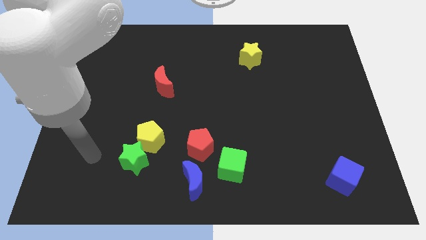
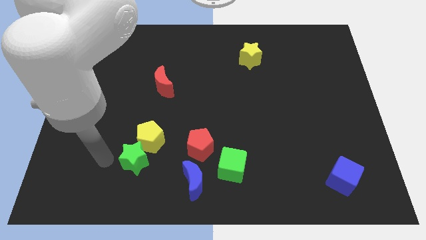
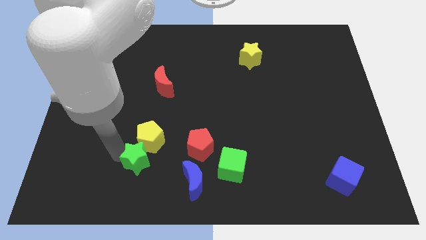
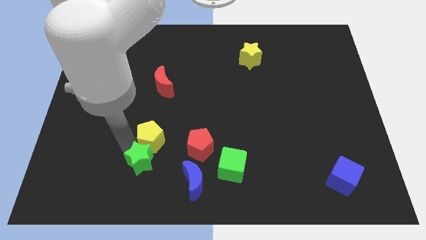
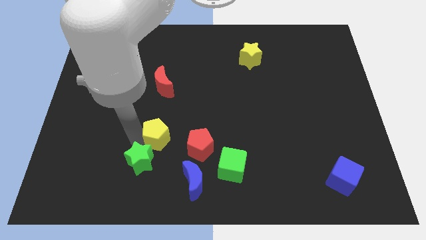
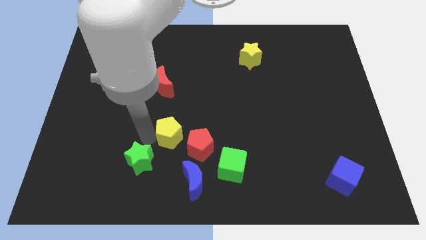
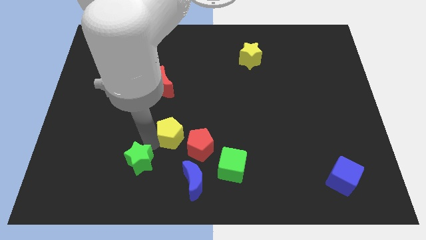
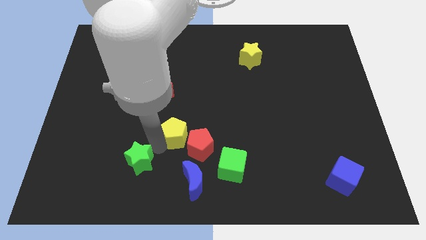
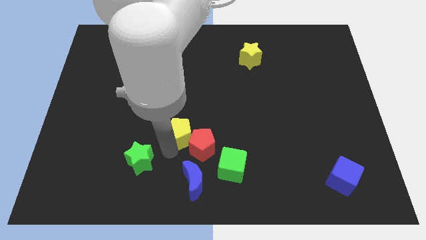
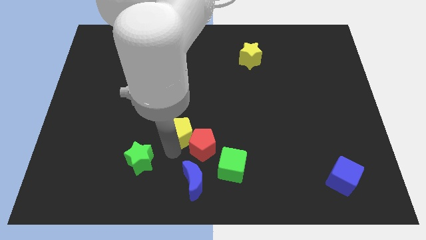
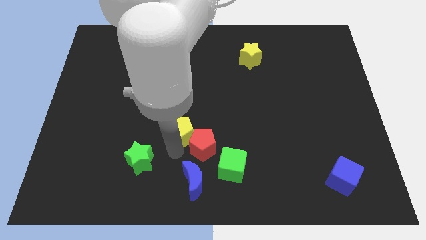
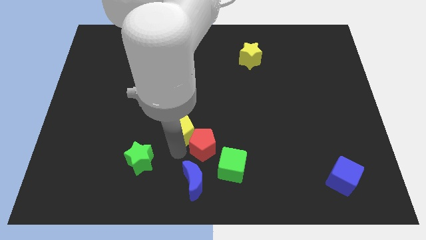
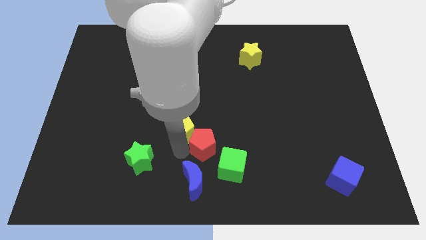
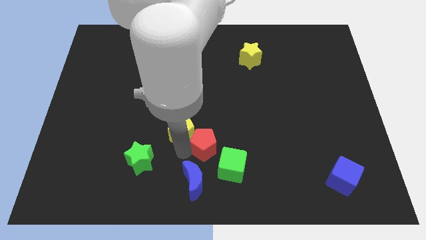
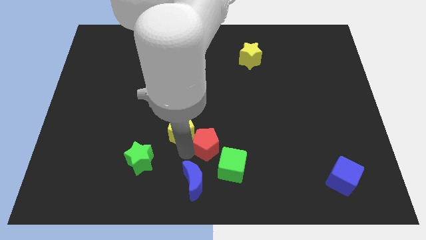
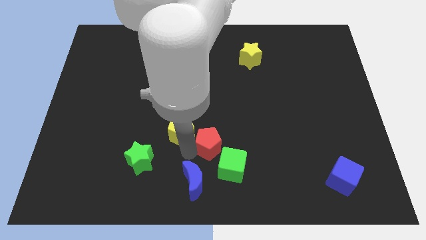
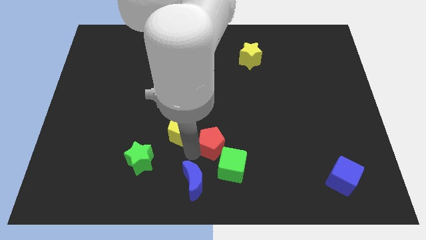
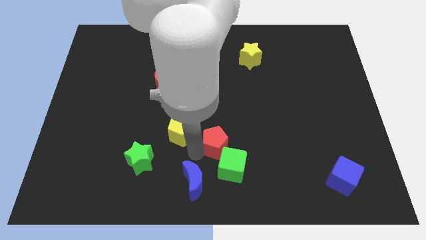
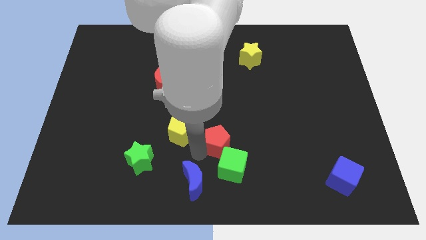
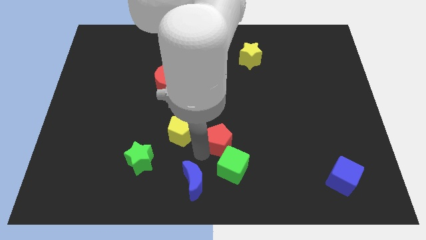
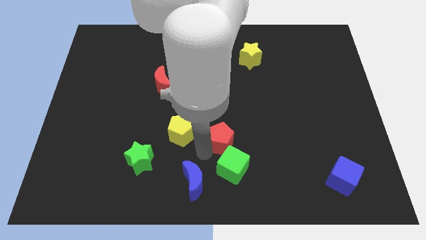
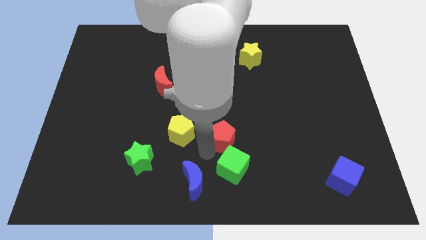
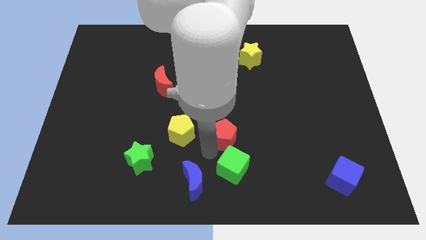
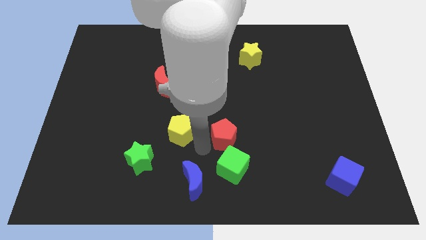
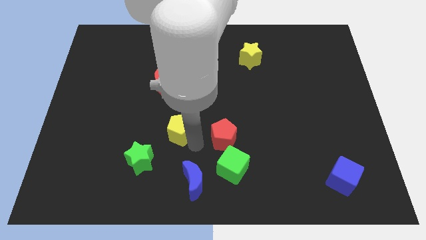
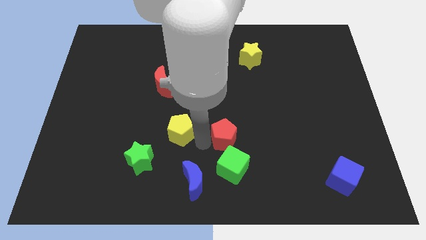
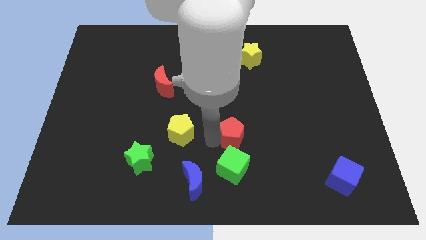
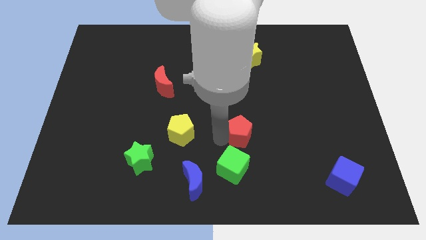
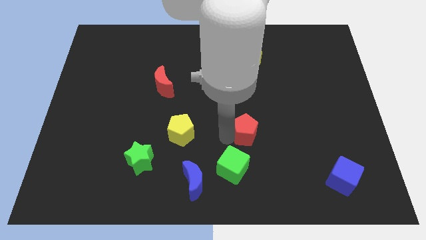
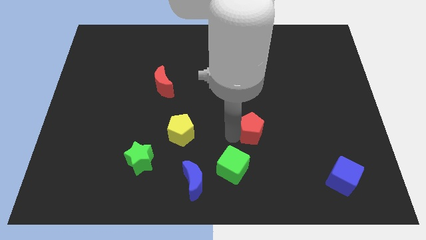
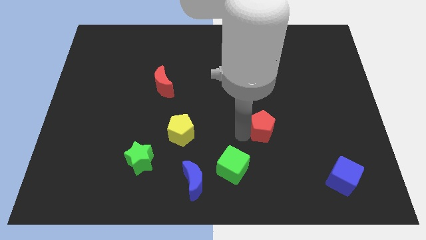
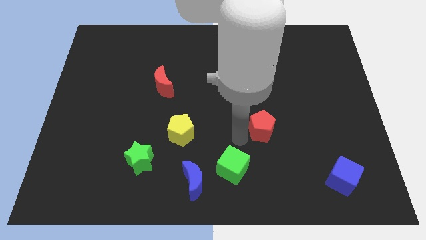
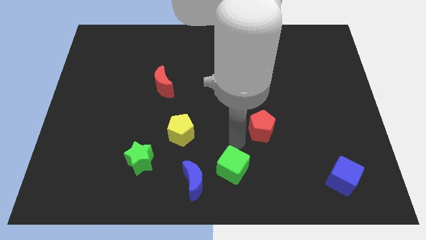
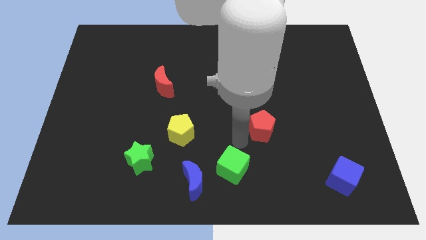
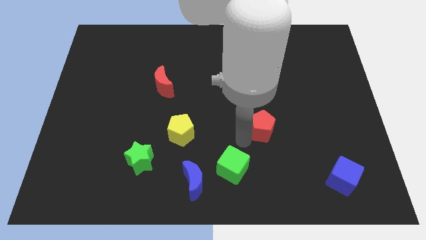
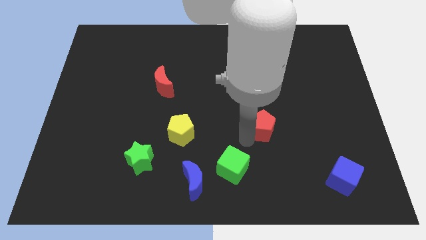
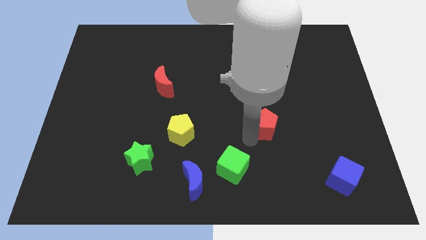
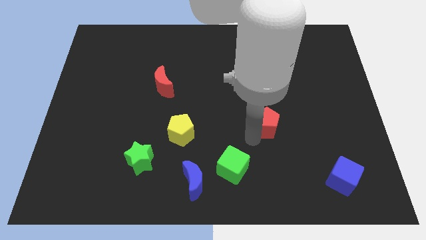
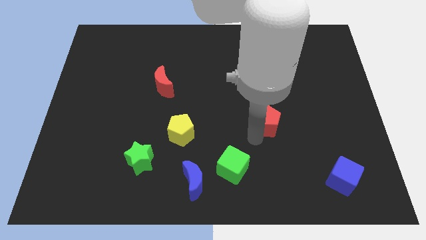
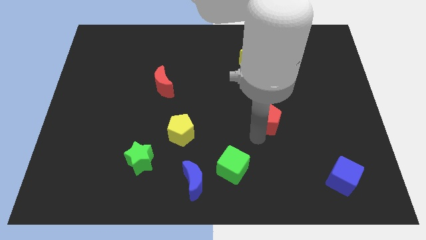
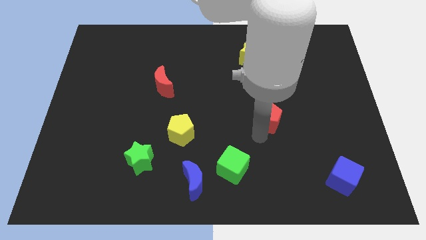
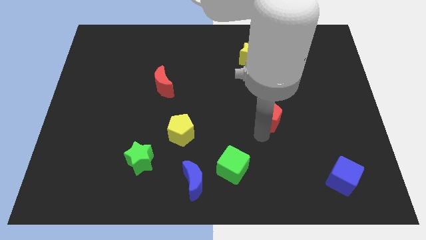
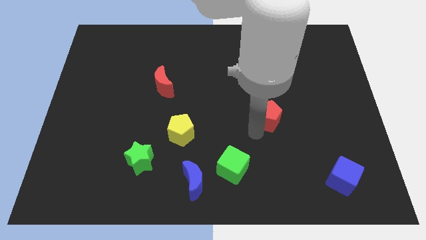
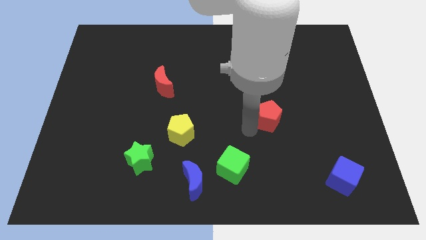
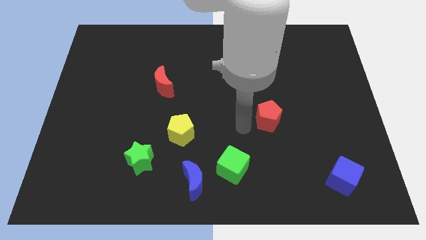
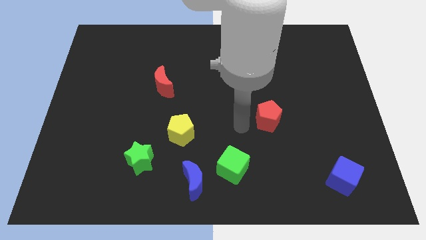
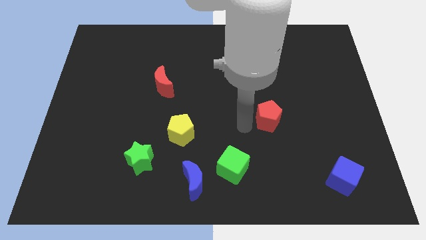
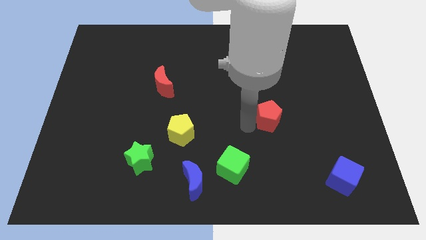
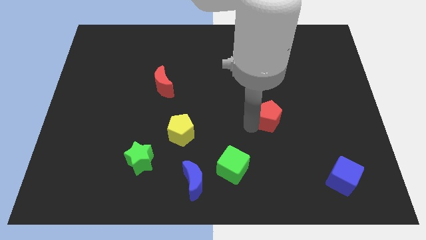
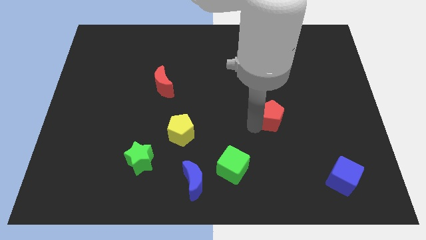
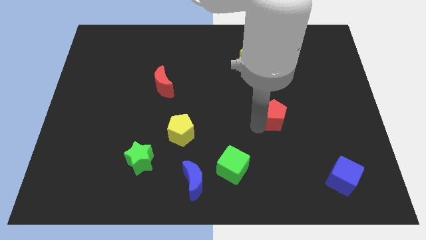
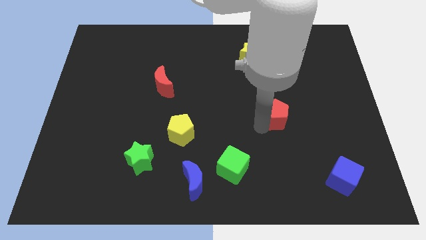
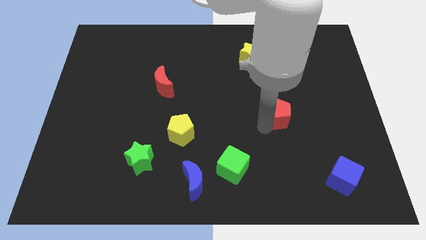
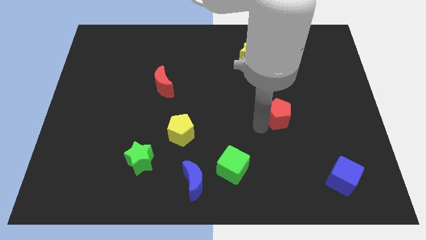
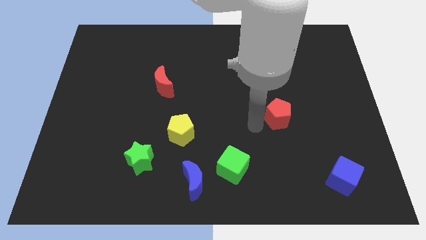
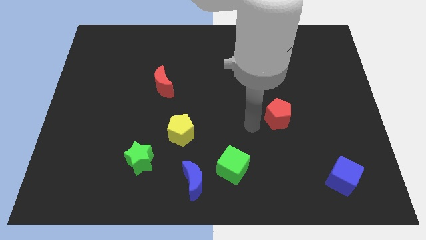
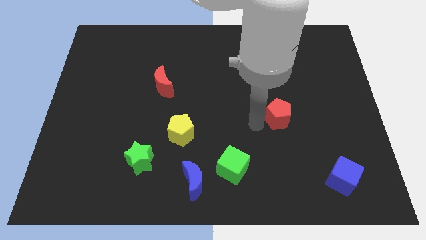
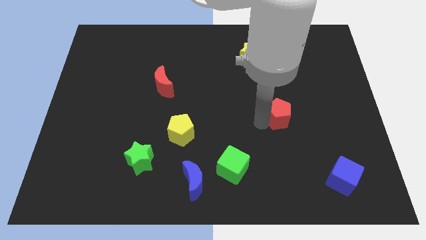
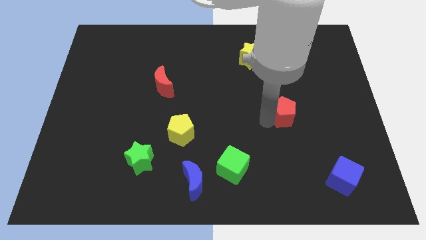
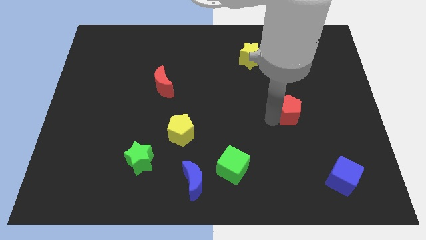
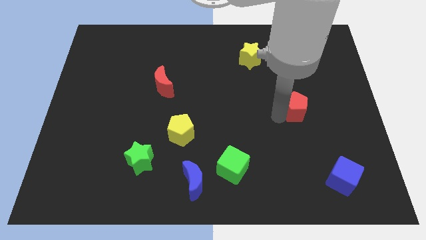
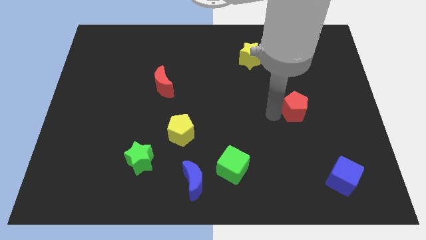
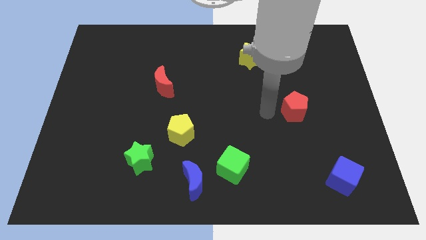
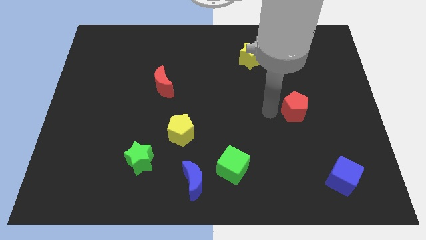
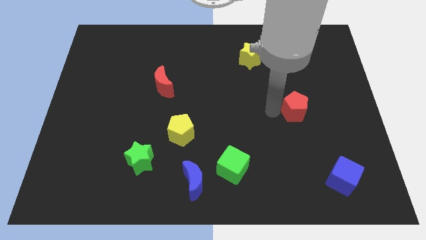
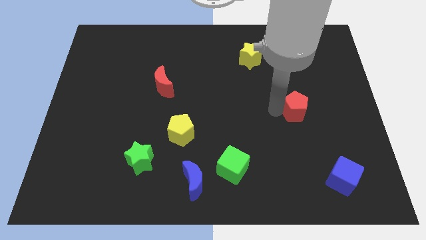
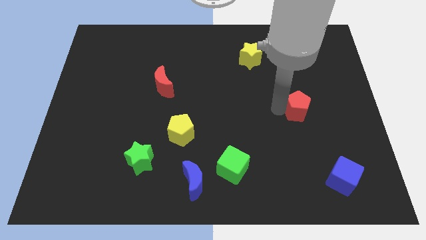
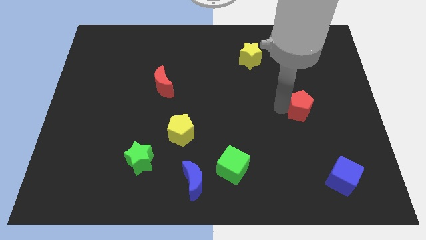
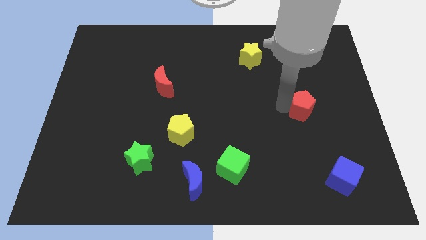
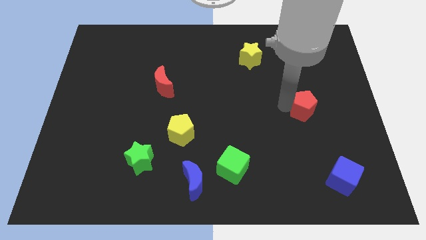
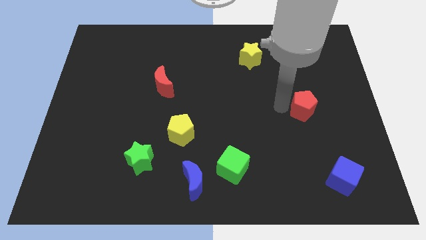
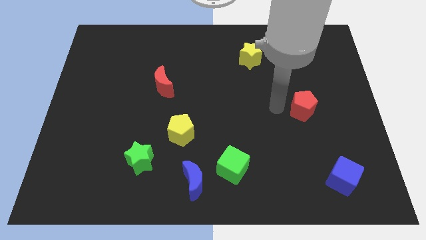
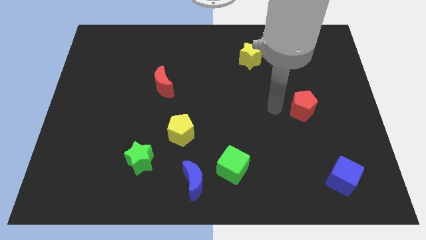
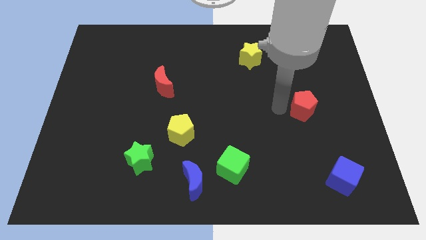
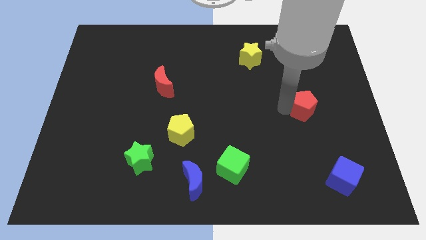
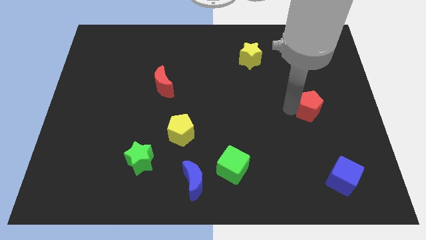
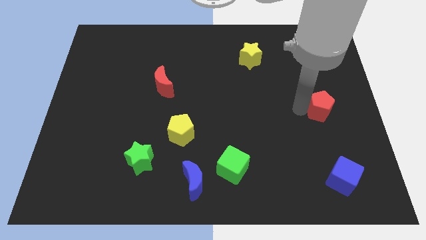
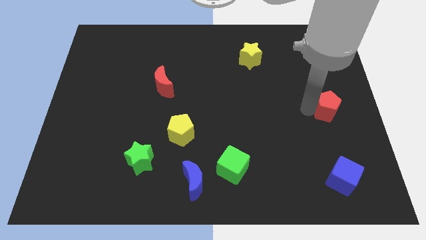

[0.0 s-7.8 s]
move the red pentagon to the right side
